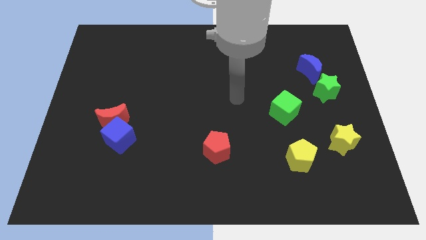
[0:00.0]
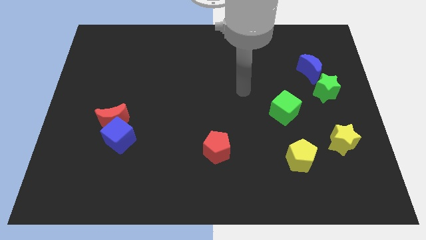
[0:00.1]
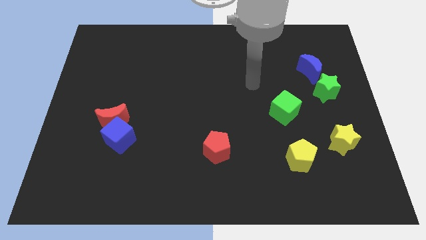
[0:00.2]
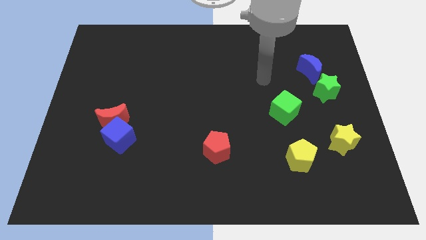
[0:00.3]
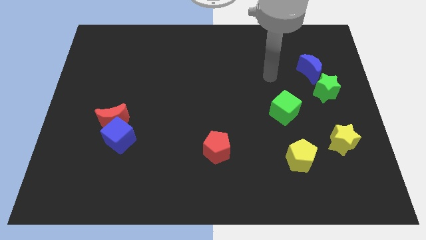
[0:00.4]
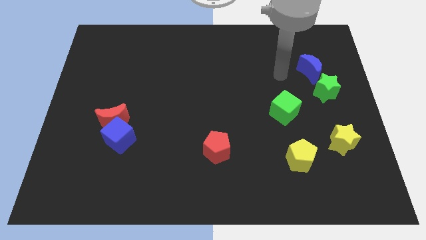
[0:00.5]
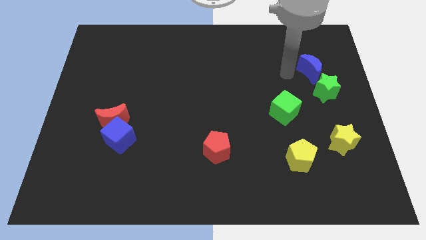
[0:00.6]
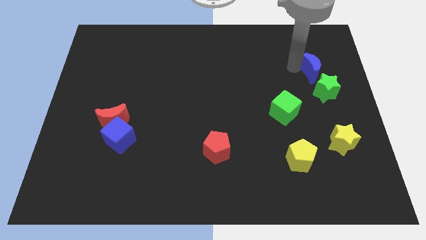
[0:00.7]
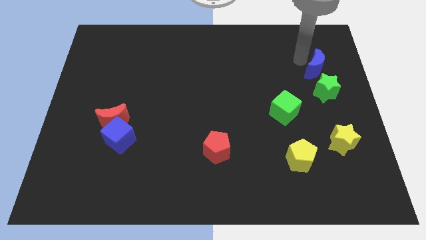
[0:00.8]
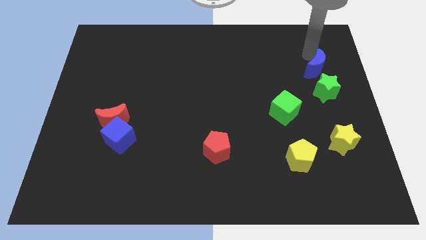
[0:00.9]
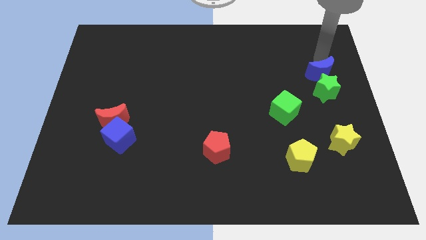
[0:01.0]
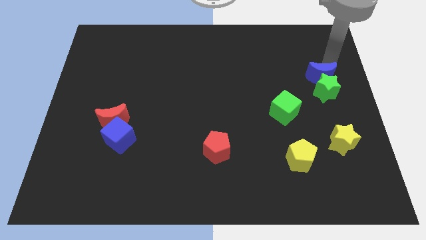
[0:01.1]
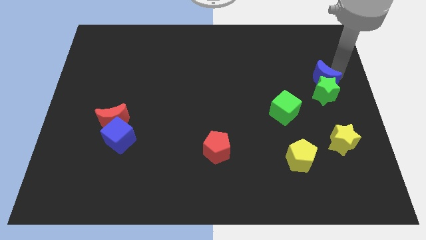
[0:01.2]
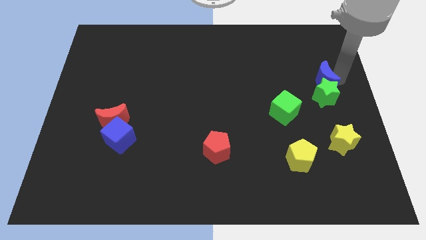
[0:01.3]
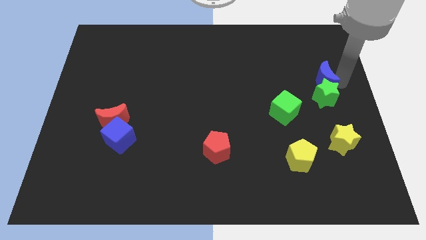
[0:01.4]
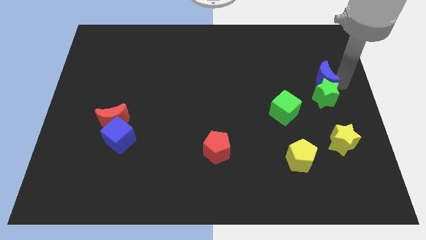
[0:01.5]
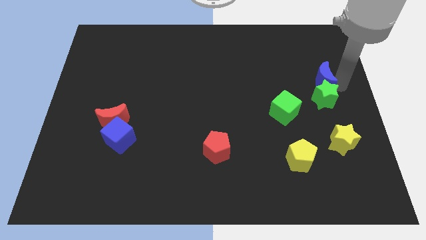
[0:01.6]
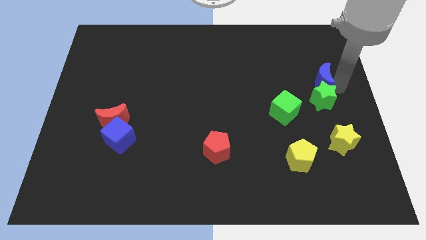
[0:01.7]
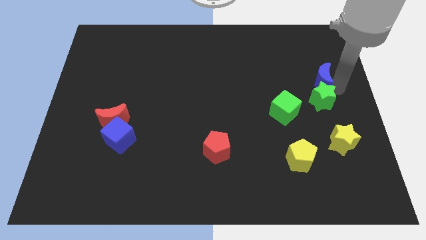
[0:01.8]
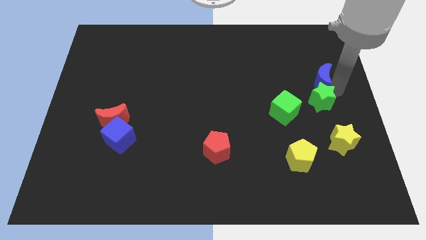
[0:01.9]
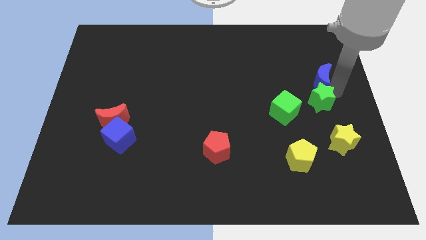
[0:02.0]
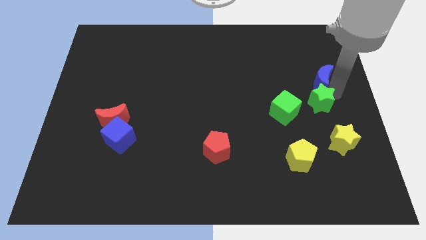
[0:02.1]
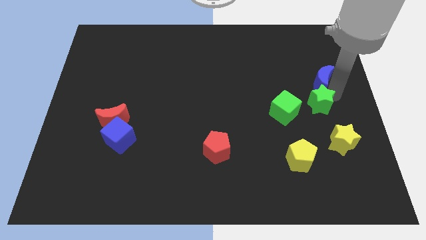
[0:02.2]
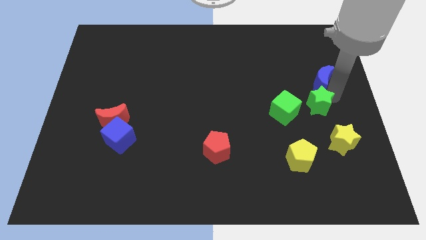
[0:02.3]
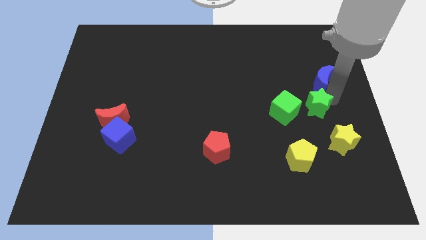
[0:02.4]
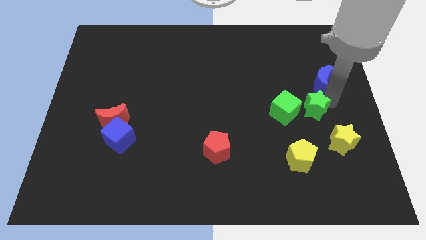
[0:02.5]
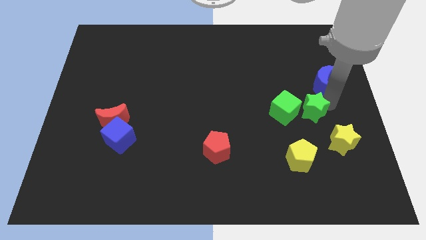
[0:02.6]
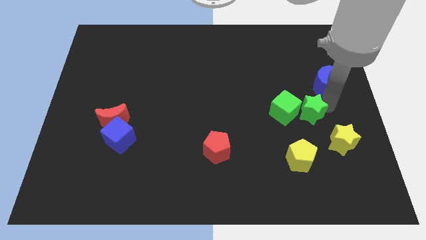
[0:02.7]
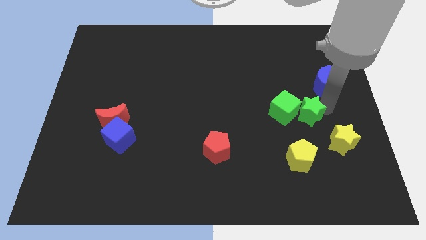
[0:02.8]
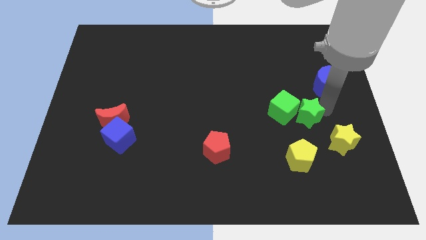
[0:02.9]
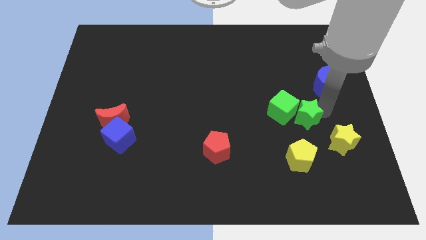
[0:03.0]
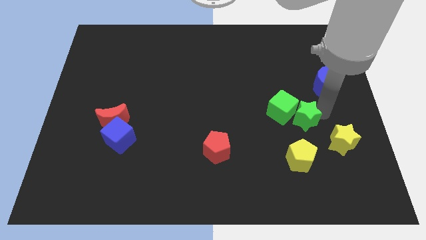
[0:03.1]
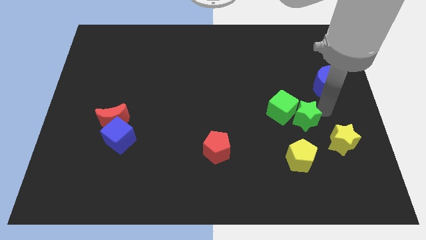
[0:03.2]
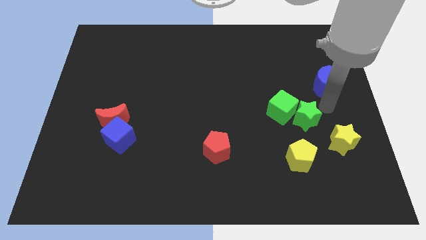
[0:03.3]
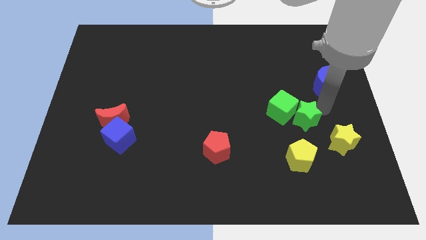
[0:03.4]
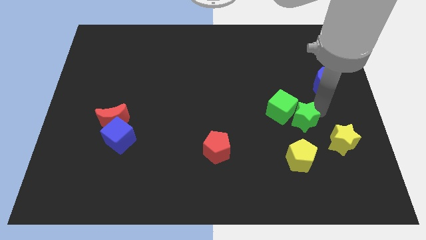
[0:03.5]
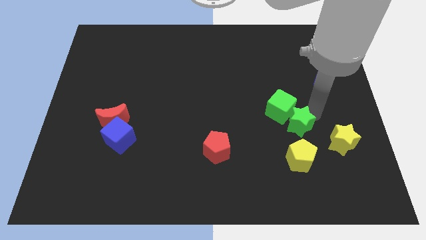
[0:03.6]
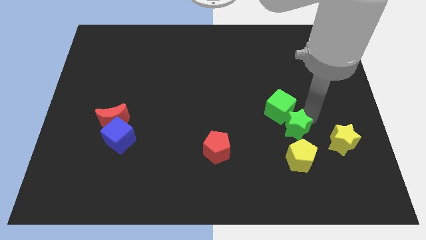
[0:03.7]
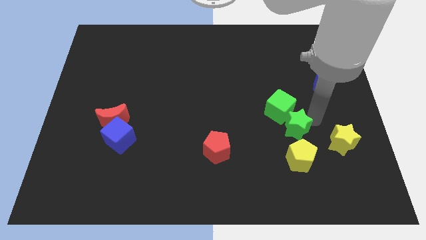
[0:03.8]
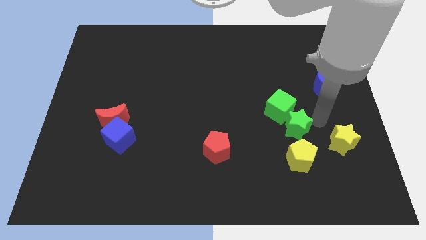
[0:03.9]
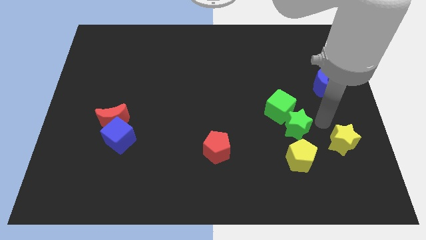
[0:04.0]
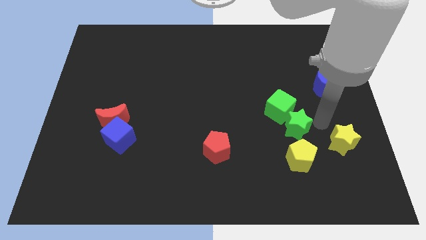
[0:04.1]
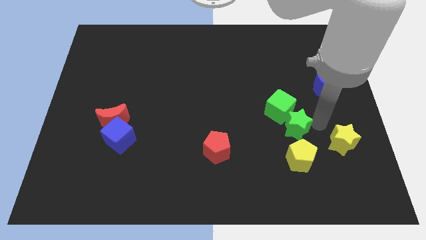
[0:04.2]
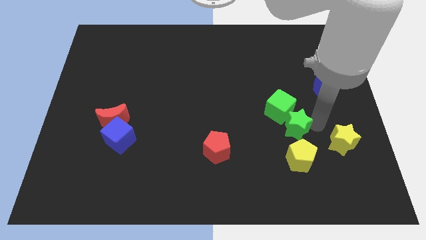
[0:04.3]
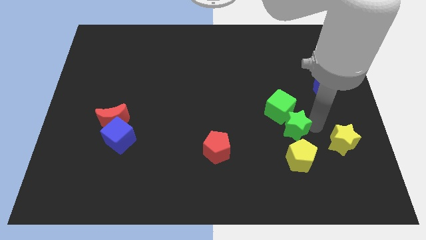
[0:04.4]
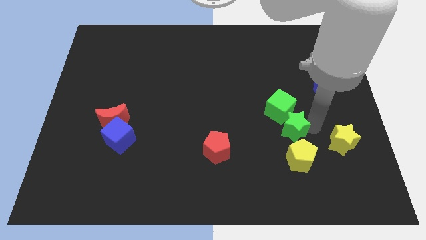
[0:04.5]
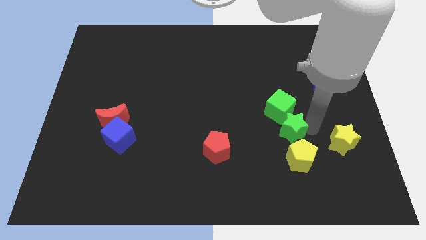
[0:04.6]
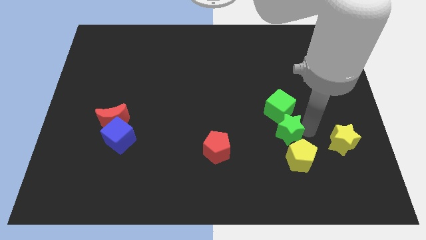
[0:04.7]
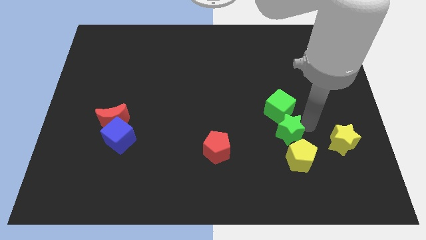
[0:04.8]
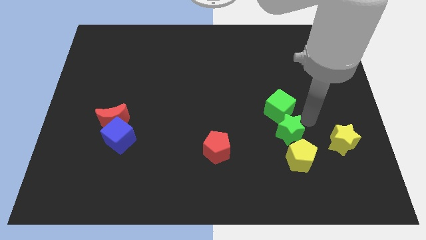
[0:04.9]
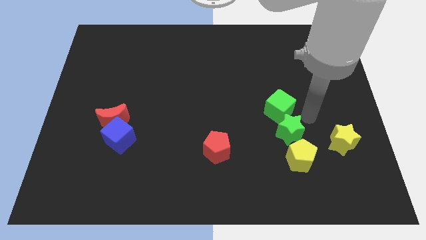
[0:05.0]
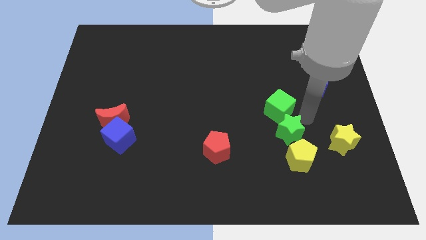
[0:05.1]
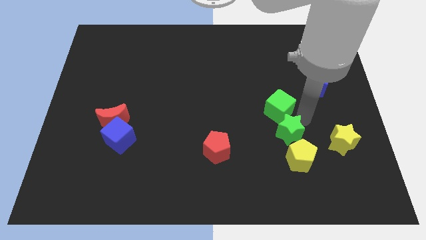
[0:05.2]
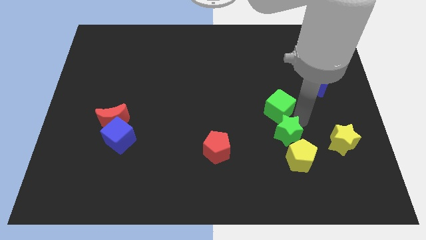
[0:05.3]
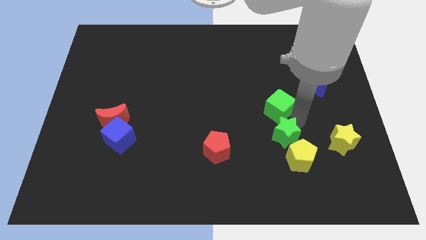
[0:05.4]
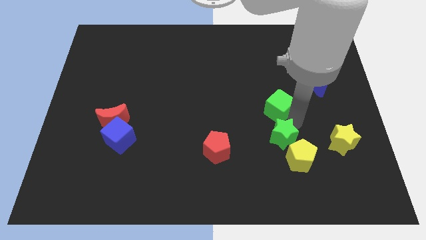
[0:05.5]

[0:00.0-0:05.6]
slide the green star just right of the red pentagon
